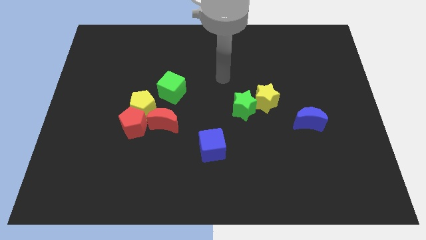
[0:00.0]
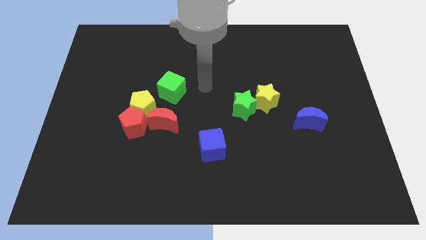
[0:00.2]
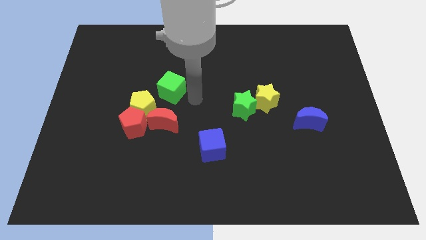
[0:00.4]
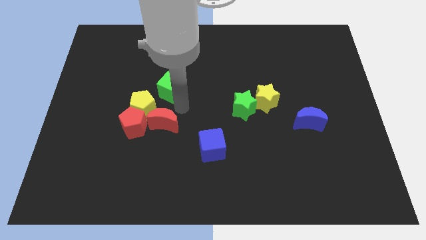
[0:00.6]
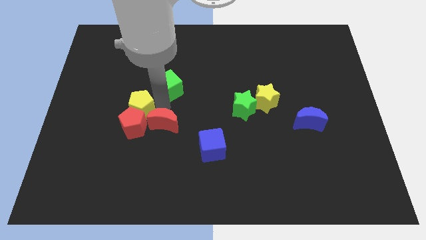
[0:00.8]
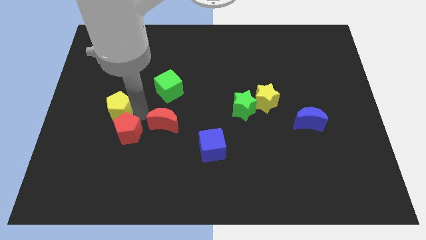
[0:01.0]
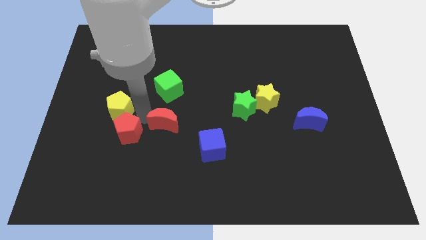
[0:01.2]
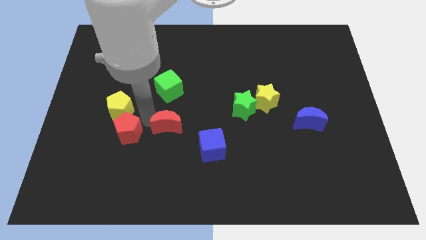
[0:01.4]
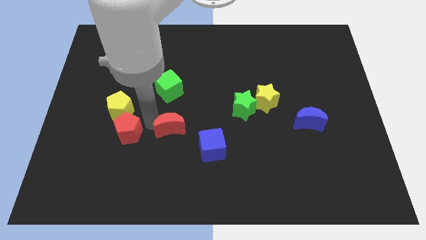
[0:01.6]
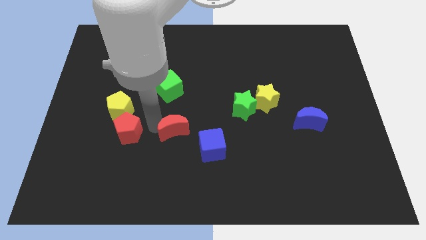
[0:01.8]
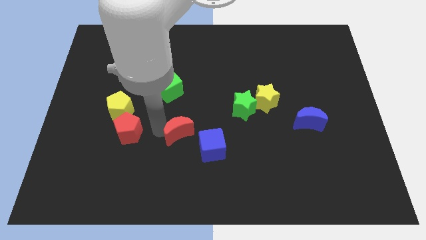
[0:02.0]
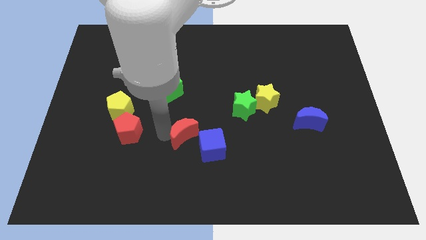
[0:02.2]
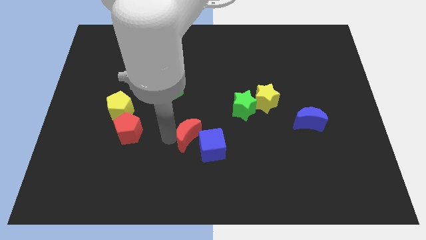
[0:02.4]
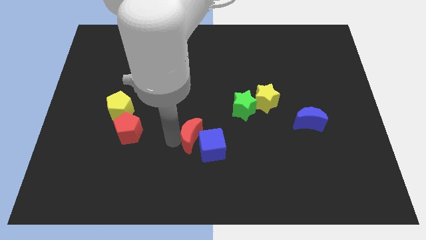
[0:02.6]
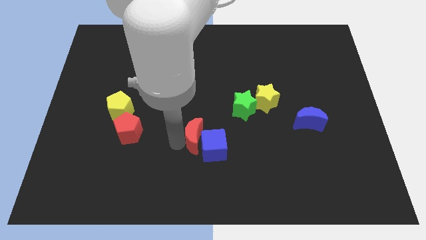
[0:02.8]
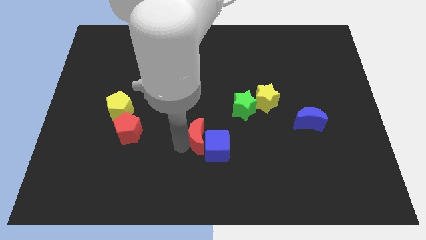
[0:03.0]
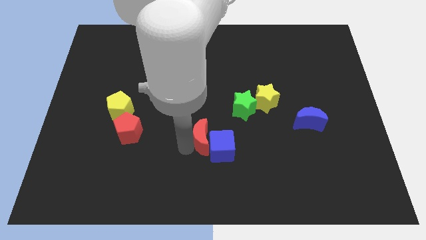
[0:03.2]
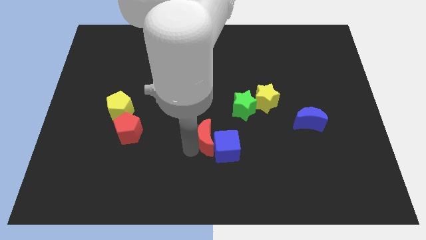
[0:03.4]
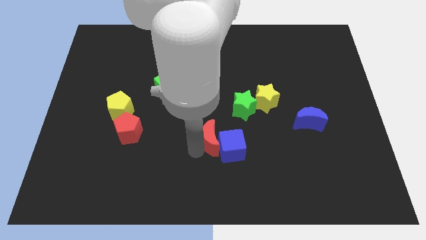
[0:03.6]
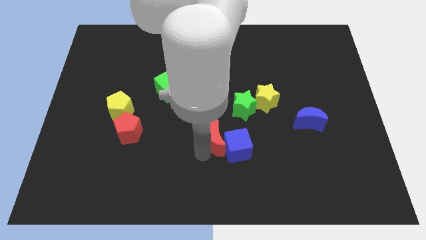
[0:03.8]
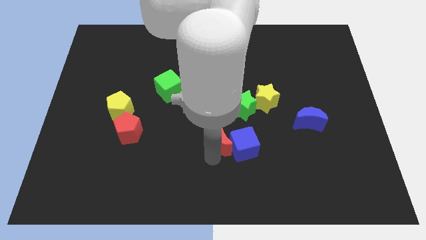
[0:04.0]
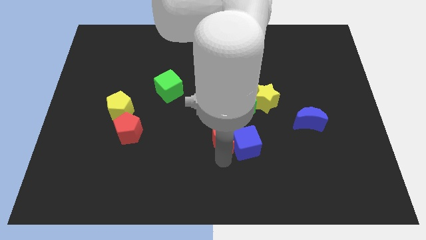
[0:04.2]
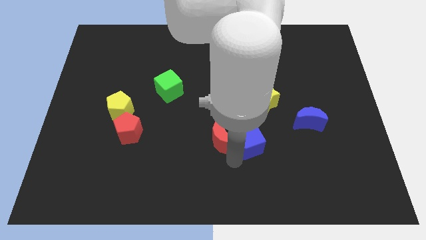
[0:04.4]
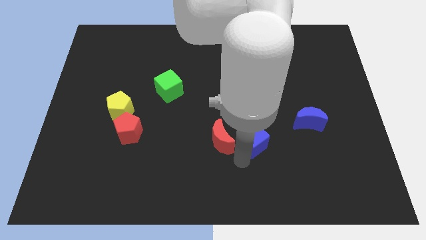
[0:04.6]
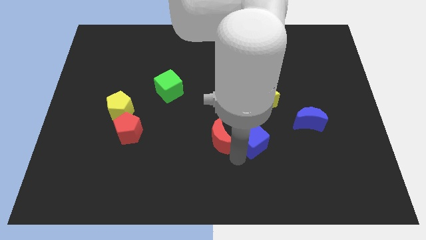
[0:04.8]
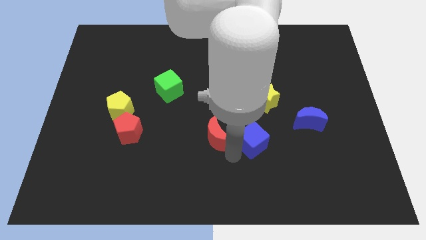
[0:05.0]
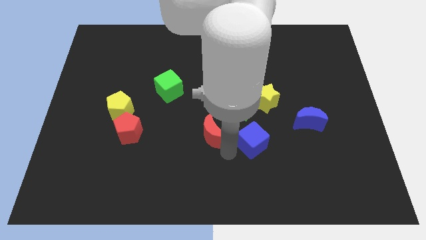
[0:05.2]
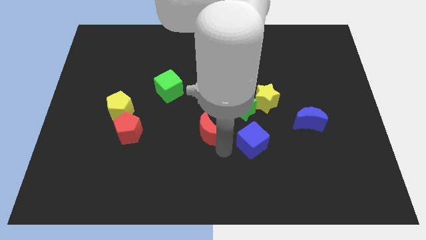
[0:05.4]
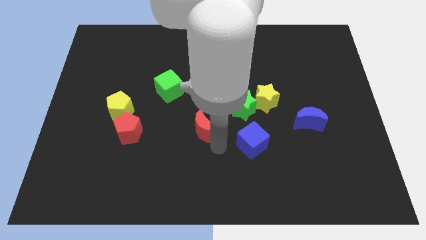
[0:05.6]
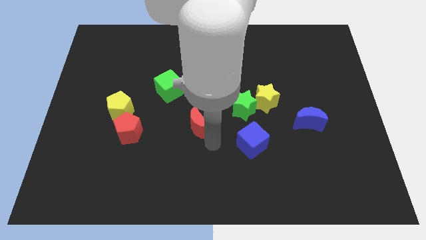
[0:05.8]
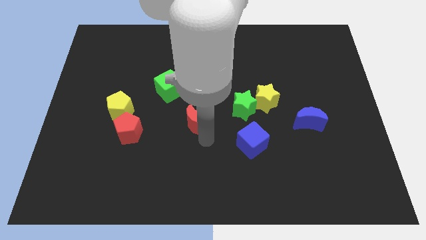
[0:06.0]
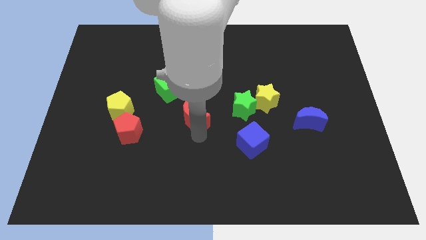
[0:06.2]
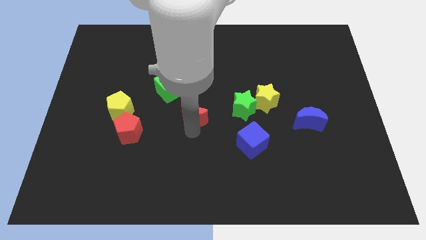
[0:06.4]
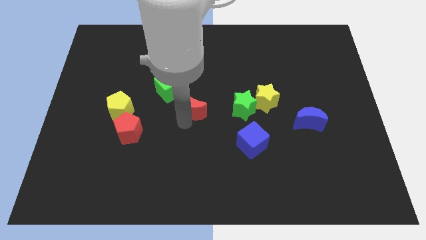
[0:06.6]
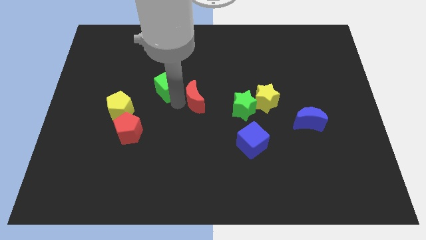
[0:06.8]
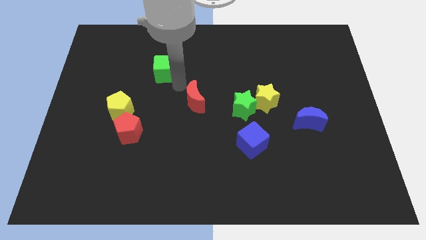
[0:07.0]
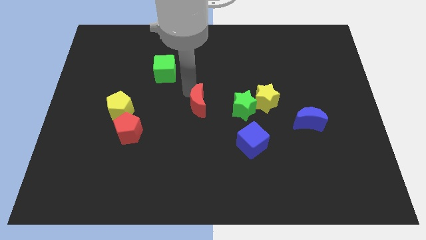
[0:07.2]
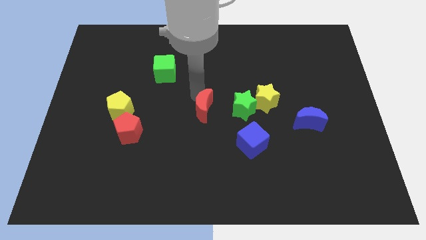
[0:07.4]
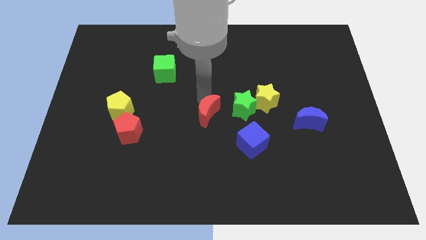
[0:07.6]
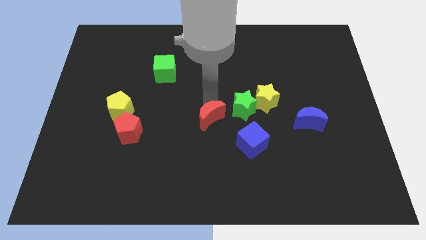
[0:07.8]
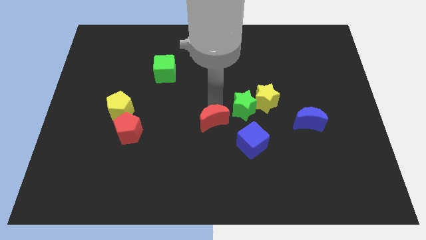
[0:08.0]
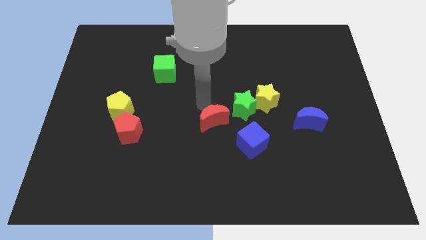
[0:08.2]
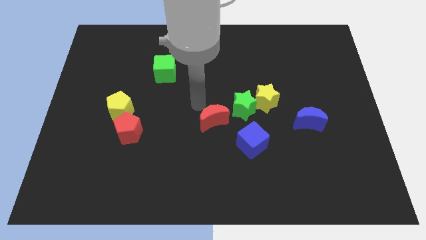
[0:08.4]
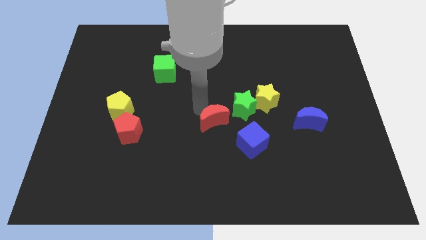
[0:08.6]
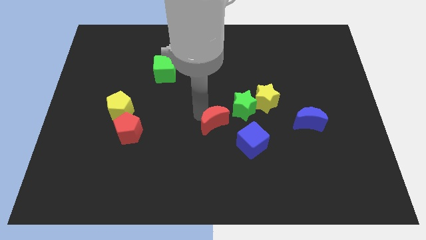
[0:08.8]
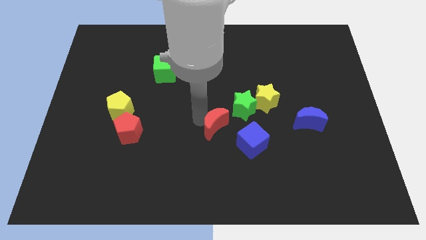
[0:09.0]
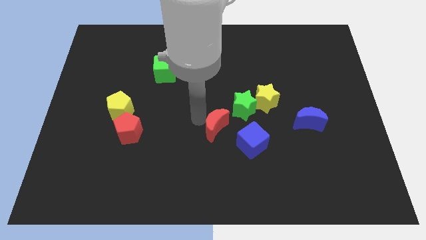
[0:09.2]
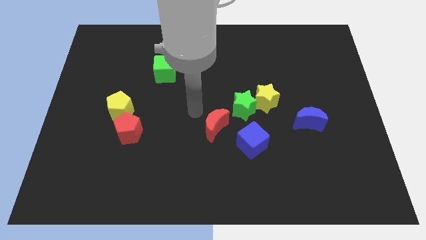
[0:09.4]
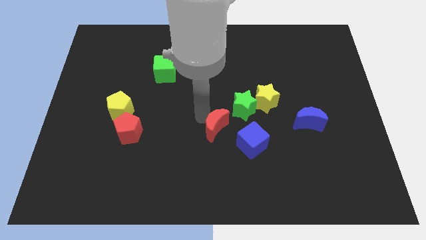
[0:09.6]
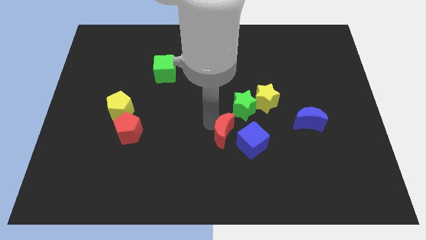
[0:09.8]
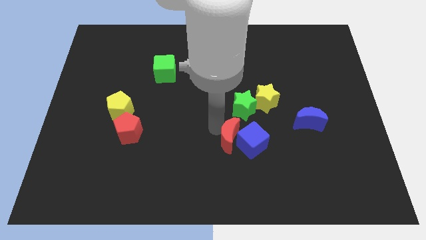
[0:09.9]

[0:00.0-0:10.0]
push the red moon to the bottom of the green star

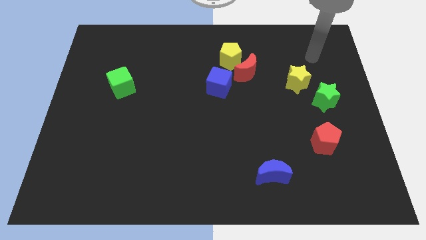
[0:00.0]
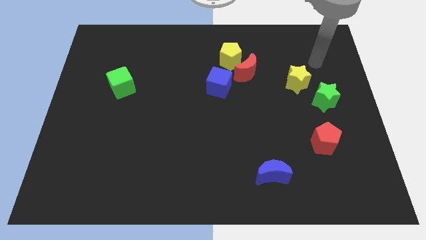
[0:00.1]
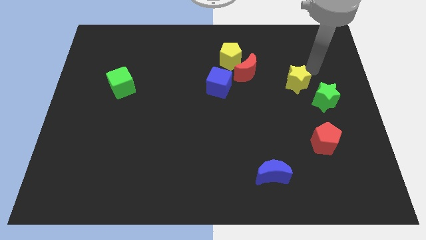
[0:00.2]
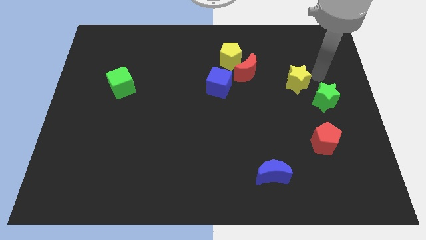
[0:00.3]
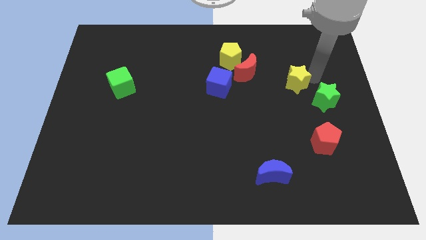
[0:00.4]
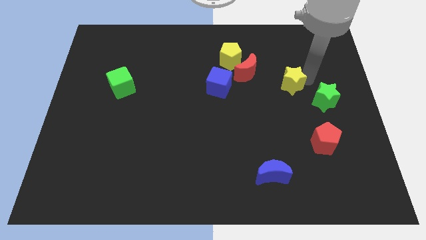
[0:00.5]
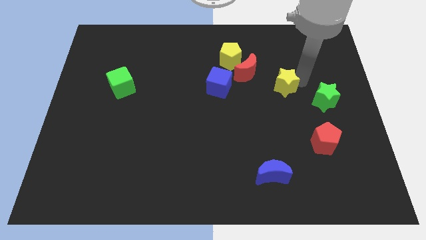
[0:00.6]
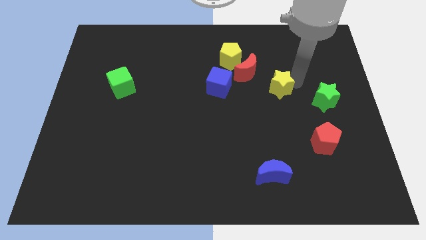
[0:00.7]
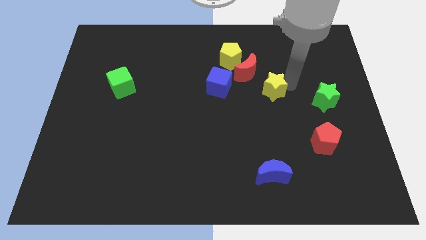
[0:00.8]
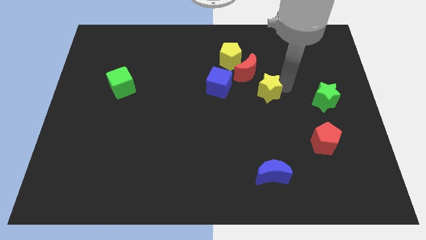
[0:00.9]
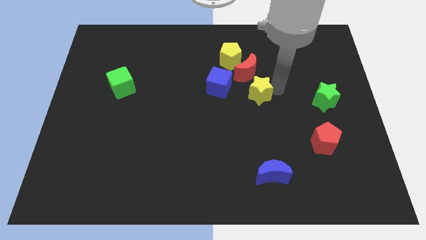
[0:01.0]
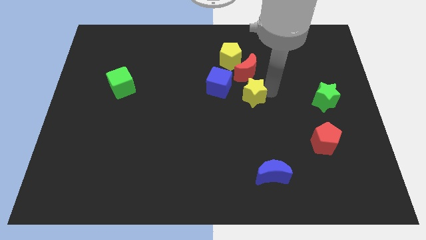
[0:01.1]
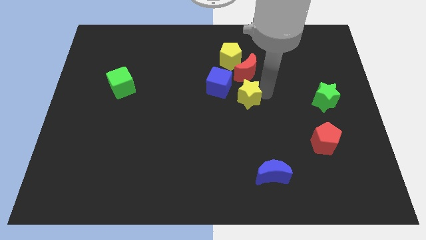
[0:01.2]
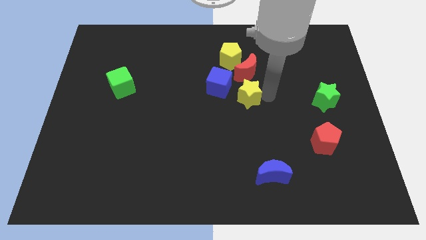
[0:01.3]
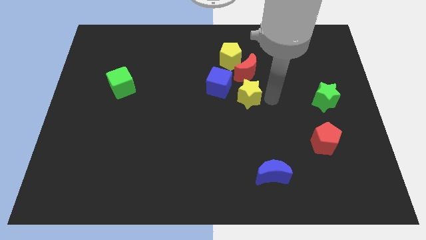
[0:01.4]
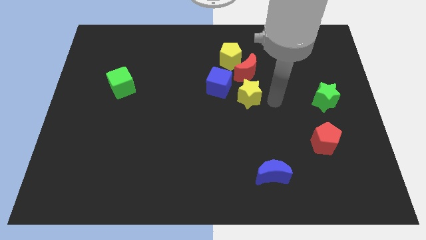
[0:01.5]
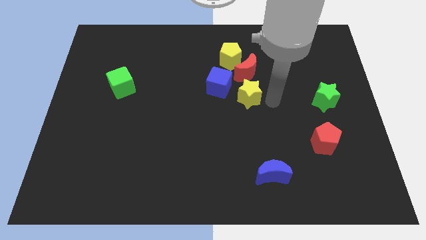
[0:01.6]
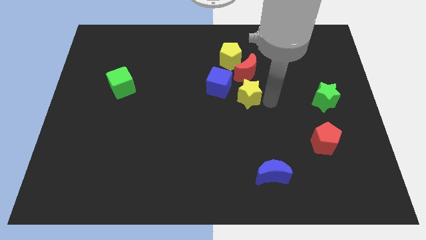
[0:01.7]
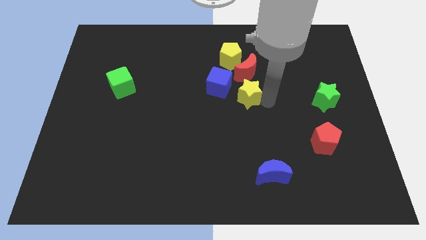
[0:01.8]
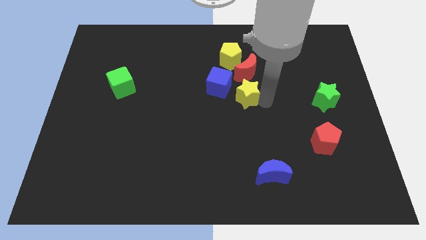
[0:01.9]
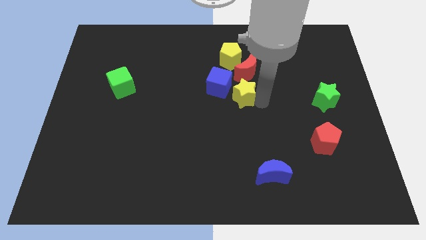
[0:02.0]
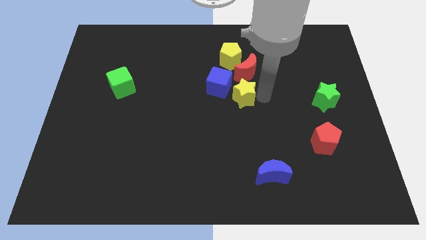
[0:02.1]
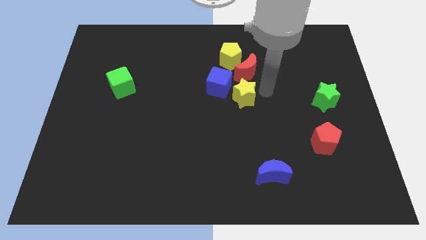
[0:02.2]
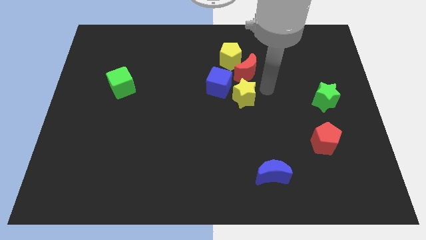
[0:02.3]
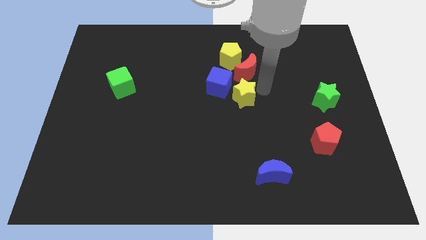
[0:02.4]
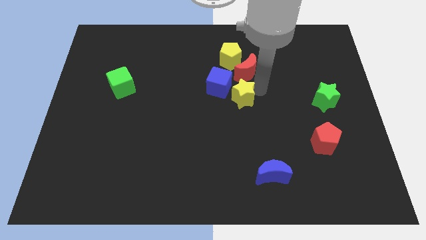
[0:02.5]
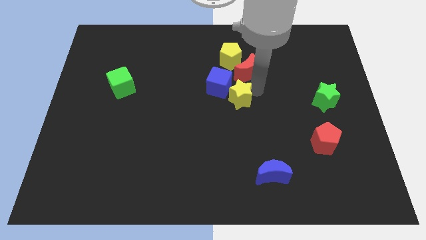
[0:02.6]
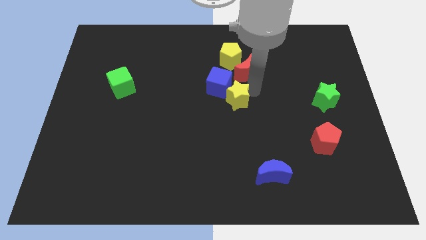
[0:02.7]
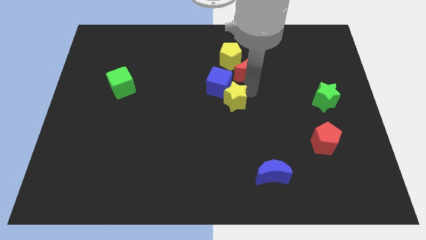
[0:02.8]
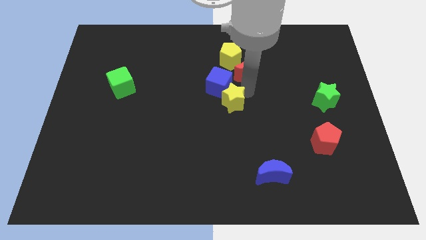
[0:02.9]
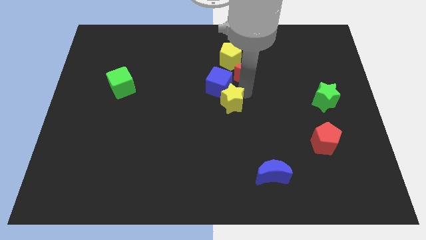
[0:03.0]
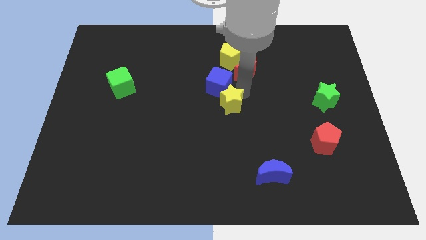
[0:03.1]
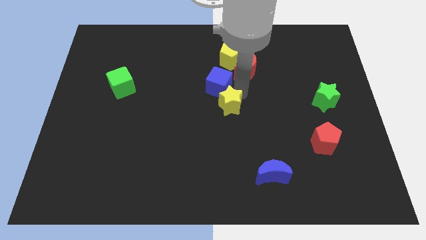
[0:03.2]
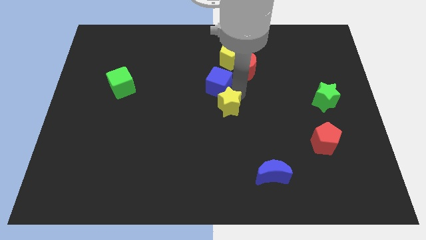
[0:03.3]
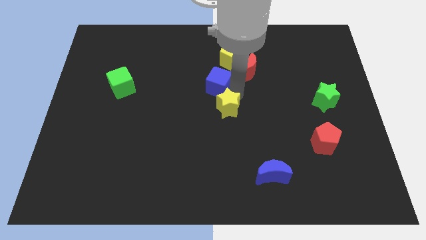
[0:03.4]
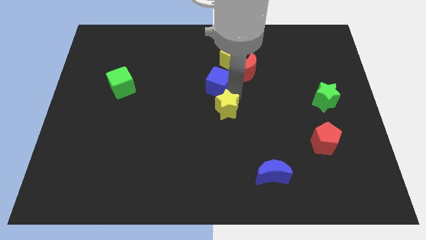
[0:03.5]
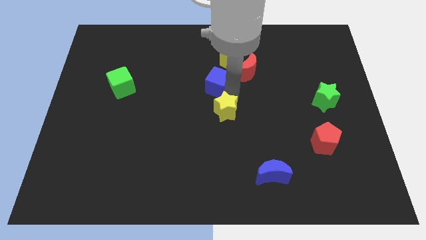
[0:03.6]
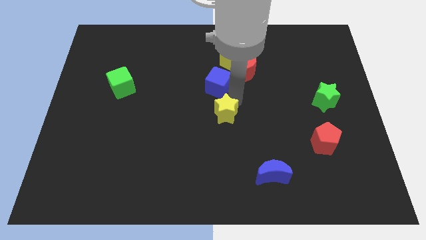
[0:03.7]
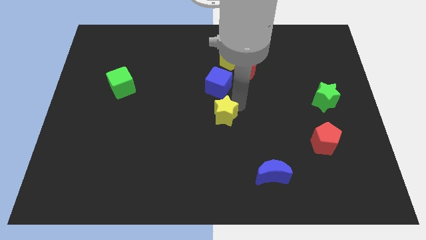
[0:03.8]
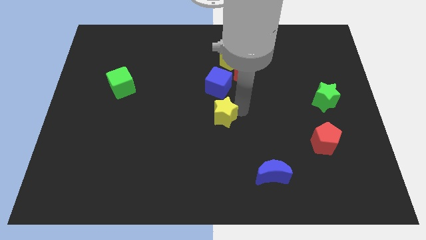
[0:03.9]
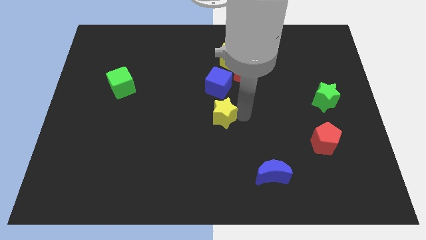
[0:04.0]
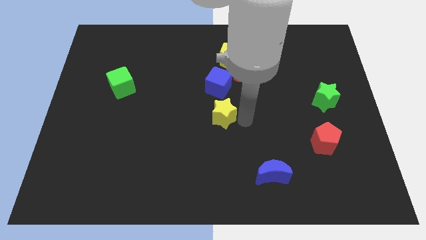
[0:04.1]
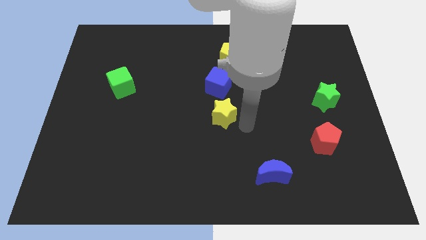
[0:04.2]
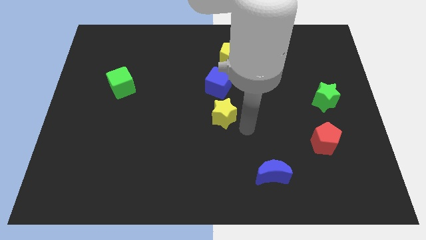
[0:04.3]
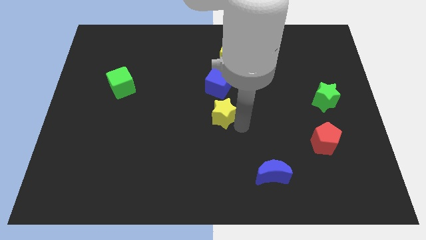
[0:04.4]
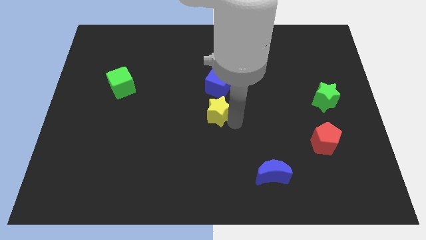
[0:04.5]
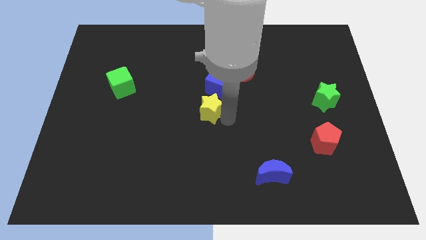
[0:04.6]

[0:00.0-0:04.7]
move the yellow star diagonally down and to the left of the blue cube
